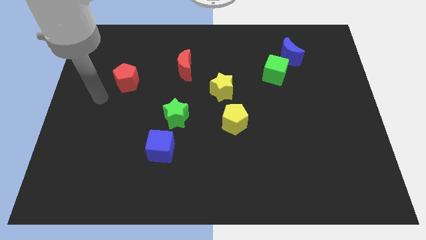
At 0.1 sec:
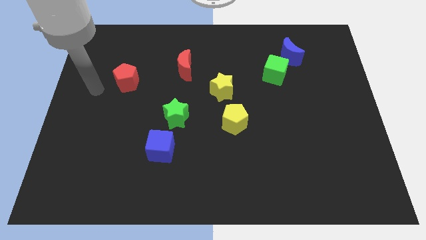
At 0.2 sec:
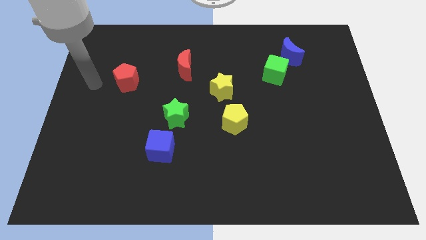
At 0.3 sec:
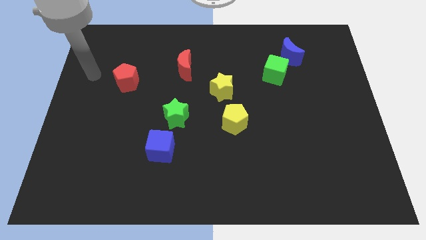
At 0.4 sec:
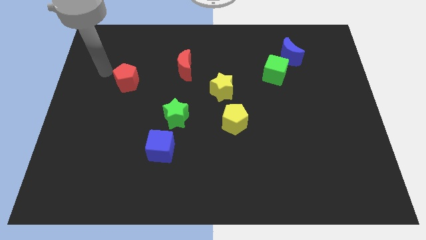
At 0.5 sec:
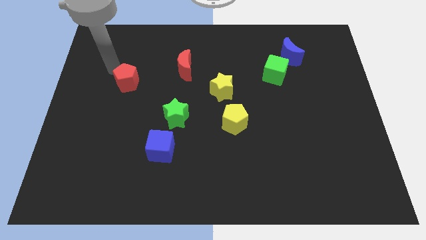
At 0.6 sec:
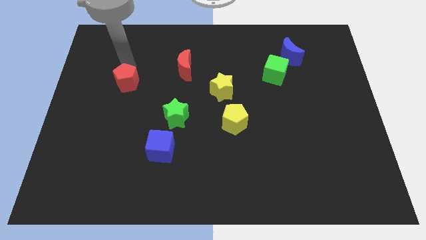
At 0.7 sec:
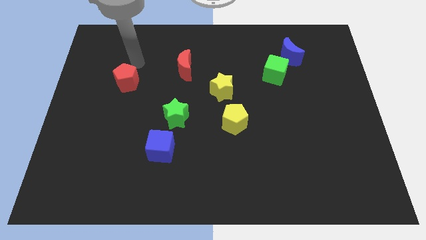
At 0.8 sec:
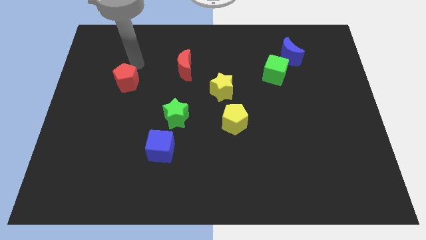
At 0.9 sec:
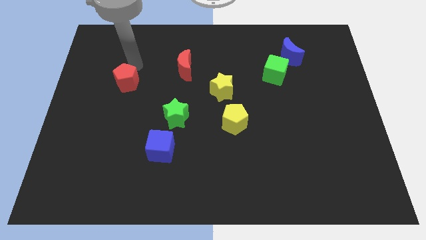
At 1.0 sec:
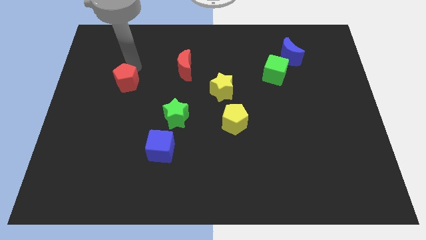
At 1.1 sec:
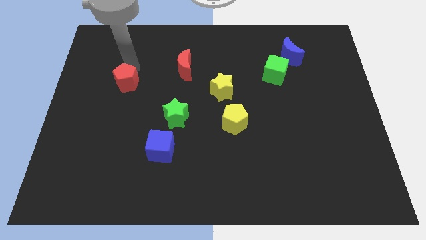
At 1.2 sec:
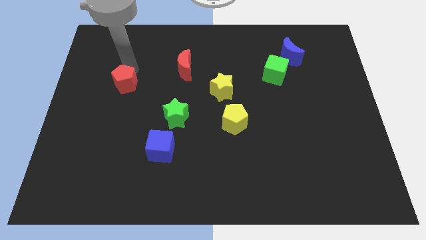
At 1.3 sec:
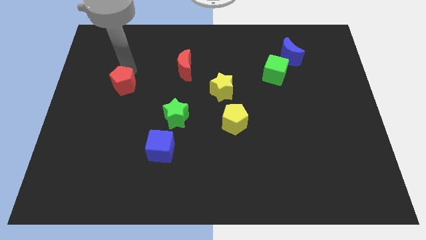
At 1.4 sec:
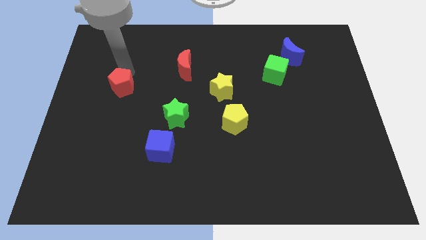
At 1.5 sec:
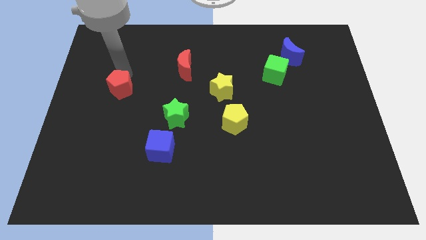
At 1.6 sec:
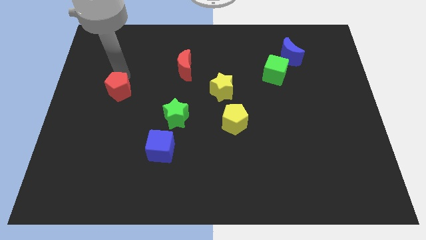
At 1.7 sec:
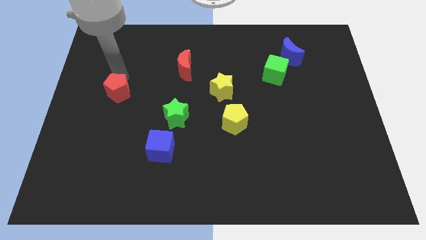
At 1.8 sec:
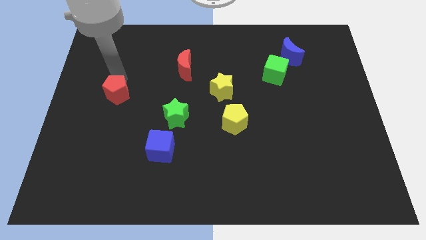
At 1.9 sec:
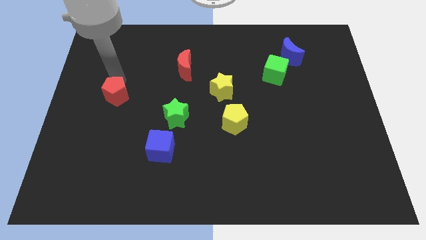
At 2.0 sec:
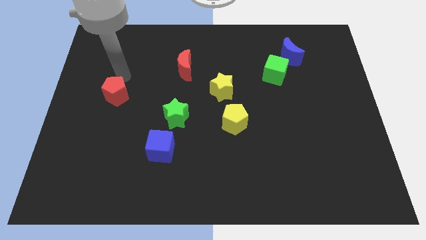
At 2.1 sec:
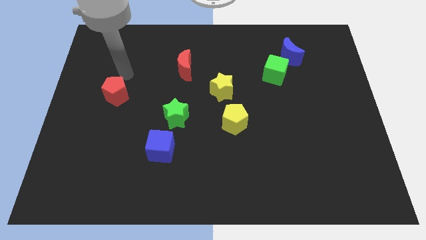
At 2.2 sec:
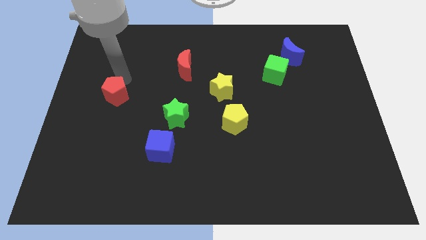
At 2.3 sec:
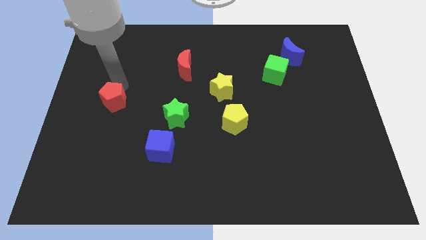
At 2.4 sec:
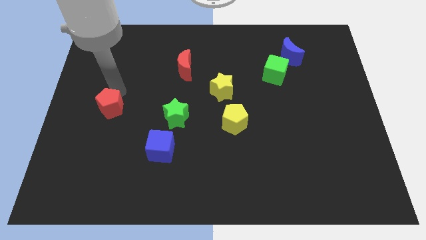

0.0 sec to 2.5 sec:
slightly push the red pentagon downwards

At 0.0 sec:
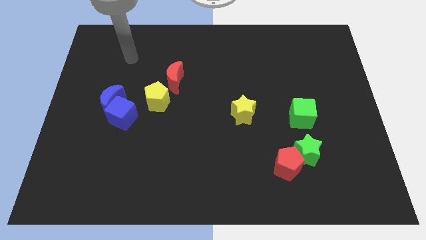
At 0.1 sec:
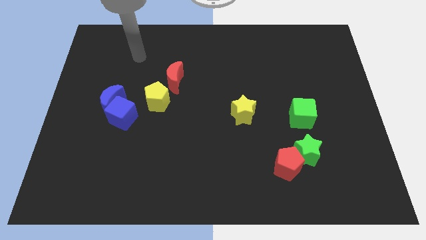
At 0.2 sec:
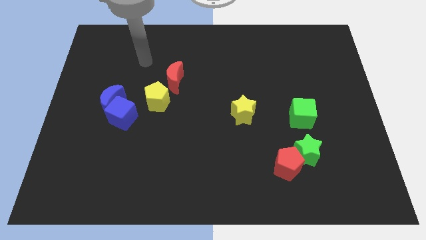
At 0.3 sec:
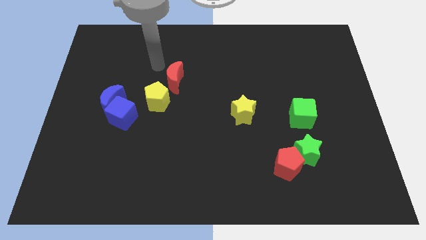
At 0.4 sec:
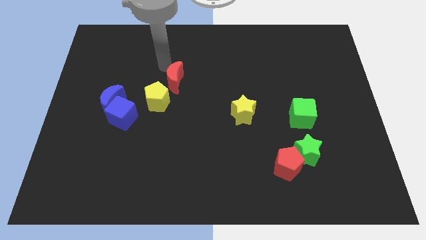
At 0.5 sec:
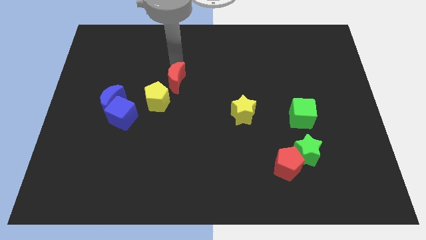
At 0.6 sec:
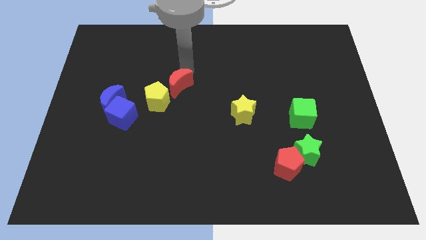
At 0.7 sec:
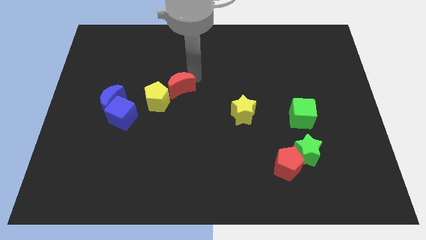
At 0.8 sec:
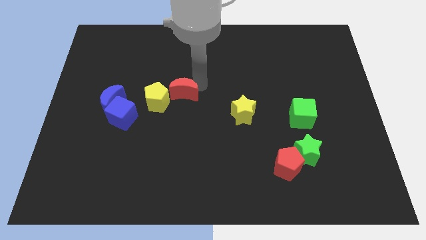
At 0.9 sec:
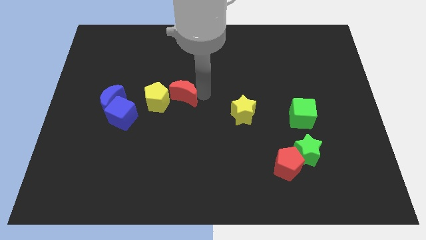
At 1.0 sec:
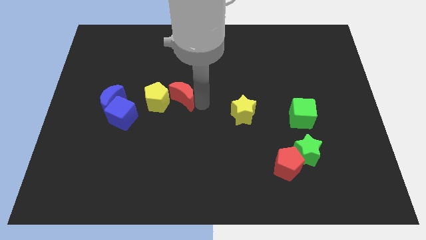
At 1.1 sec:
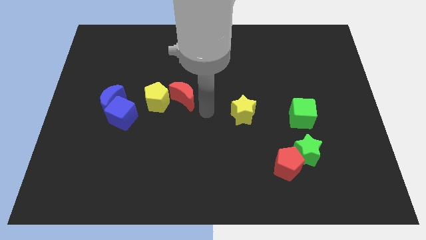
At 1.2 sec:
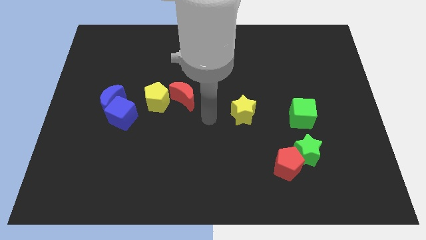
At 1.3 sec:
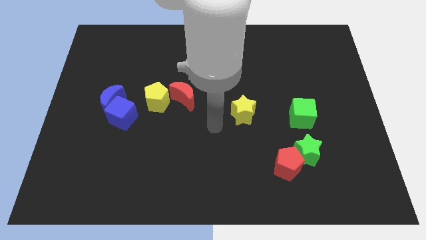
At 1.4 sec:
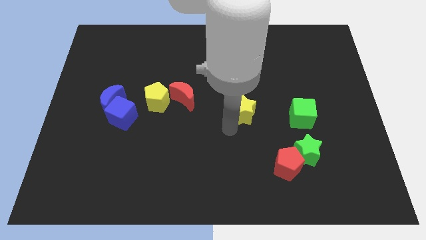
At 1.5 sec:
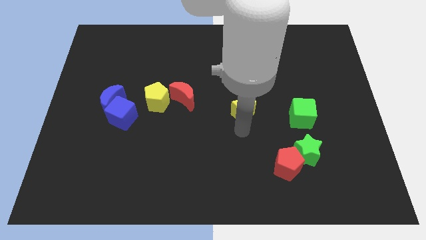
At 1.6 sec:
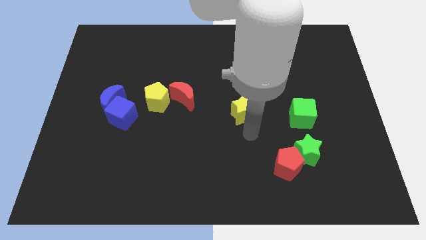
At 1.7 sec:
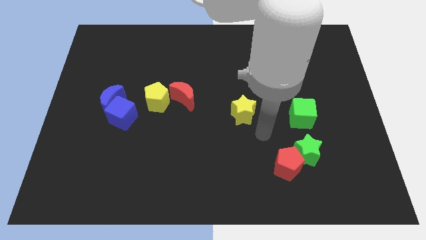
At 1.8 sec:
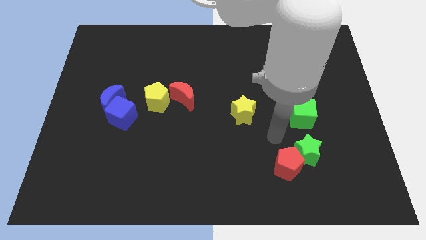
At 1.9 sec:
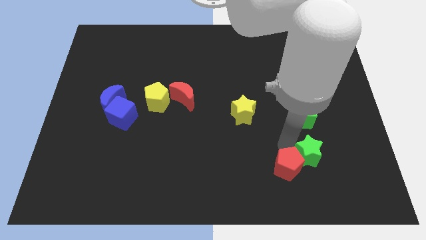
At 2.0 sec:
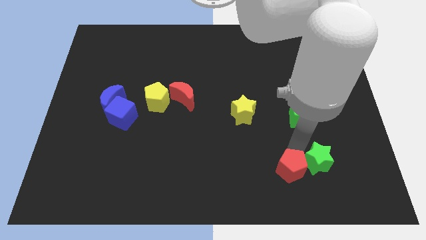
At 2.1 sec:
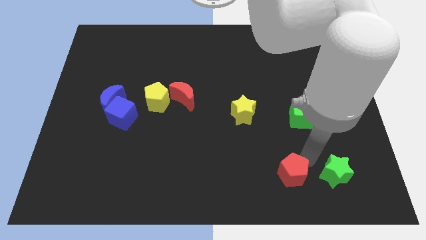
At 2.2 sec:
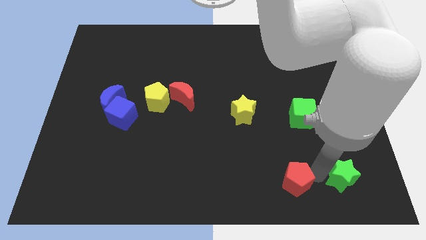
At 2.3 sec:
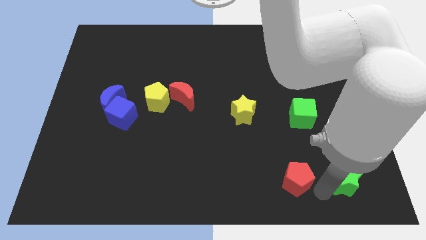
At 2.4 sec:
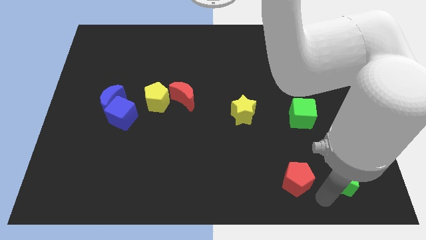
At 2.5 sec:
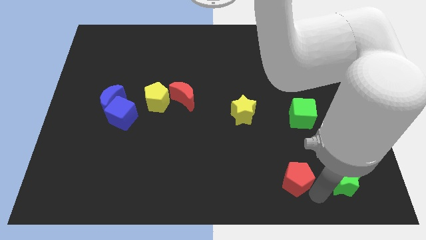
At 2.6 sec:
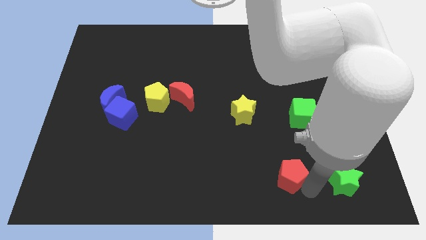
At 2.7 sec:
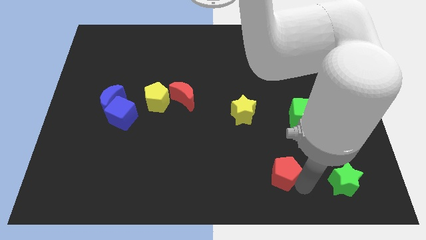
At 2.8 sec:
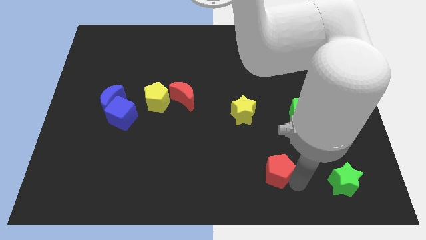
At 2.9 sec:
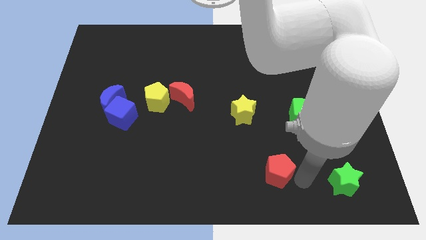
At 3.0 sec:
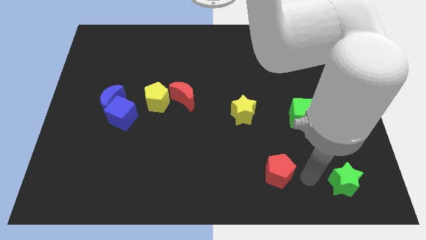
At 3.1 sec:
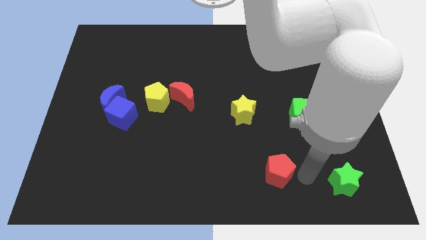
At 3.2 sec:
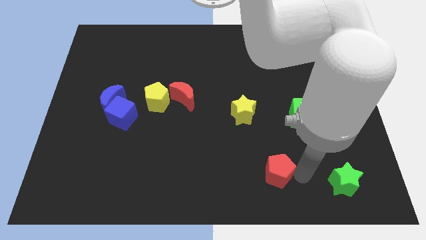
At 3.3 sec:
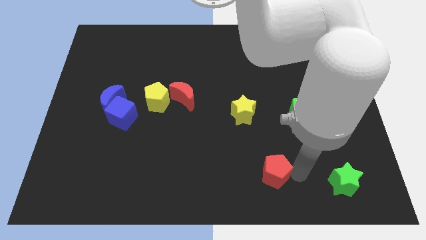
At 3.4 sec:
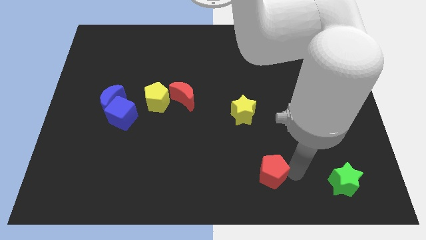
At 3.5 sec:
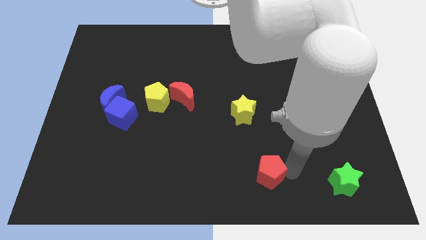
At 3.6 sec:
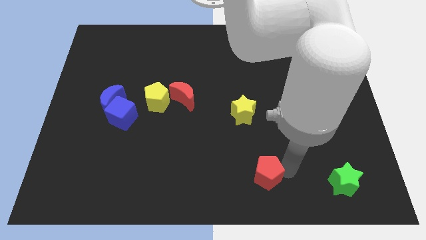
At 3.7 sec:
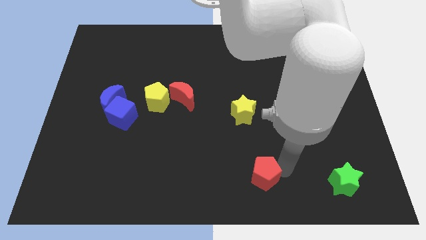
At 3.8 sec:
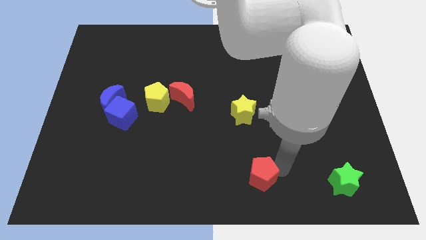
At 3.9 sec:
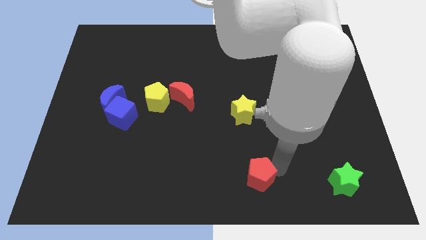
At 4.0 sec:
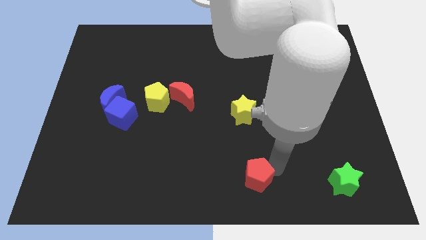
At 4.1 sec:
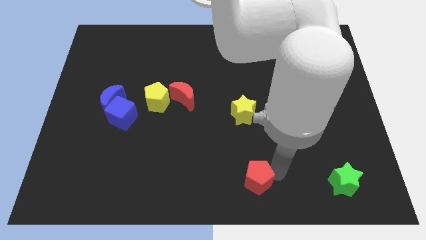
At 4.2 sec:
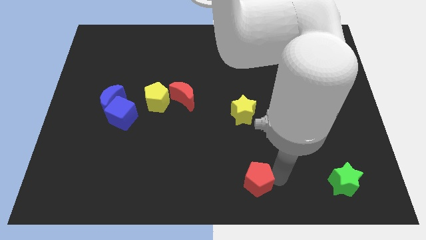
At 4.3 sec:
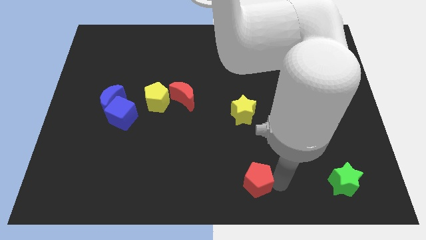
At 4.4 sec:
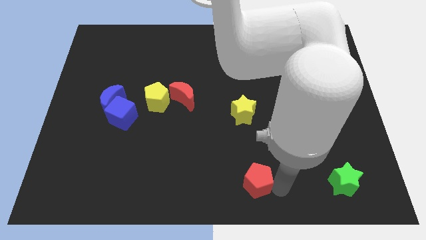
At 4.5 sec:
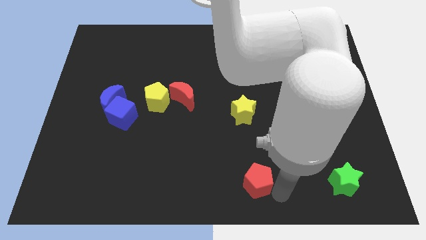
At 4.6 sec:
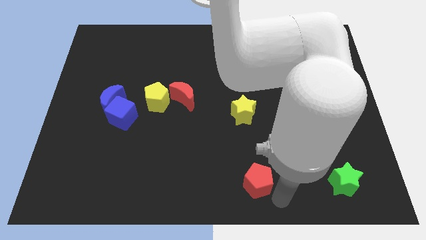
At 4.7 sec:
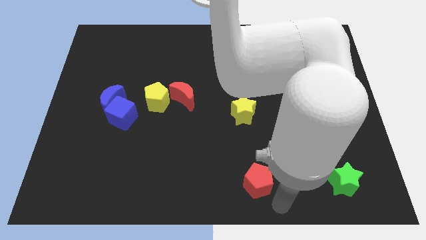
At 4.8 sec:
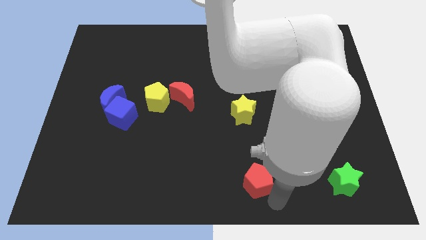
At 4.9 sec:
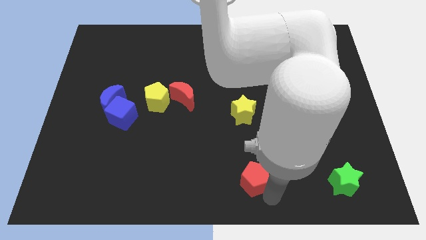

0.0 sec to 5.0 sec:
slightly push the red pentagon to the left

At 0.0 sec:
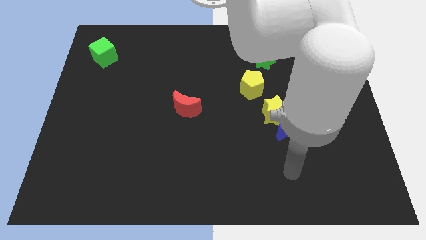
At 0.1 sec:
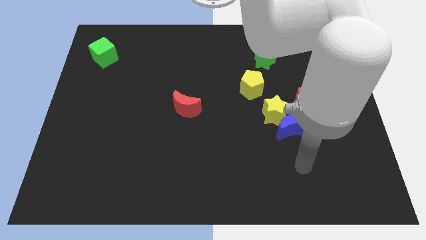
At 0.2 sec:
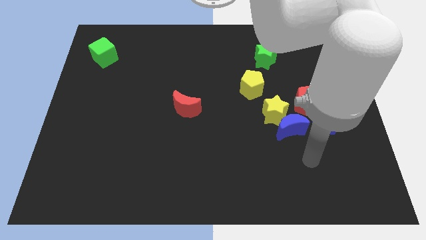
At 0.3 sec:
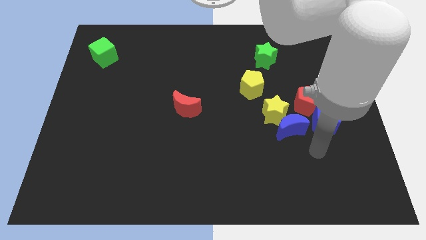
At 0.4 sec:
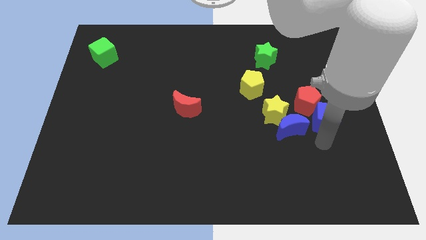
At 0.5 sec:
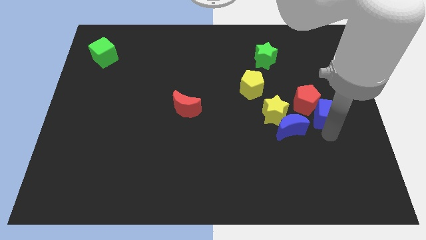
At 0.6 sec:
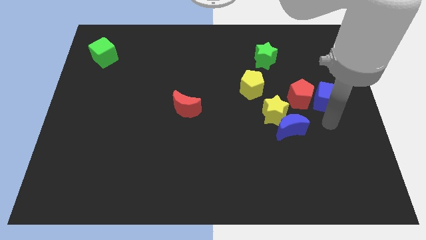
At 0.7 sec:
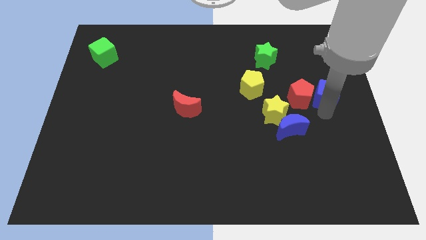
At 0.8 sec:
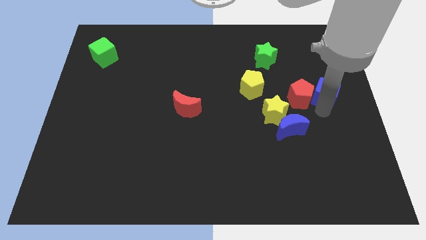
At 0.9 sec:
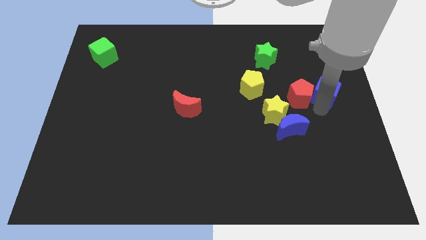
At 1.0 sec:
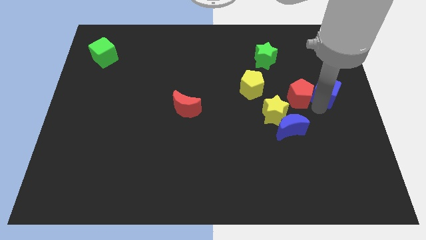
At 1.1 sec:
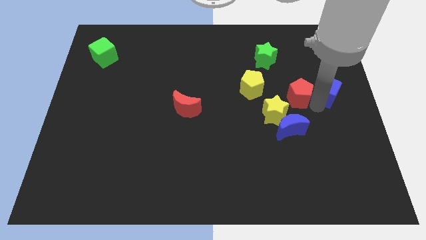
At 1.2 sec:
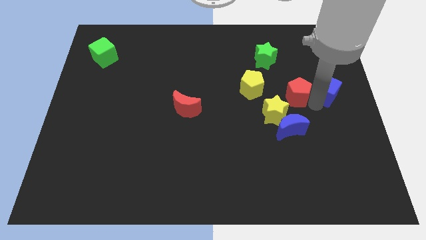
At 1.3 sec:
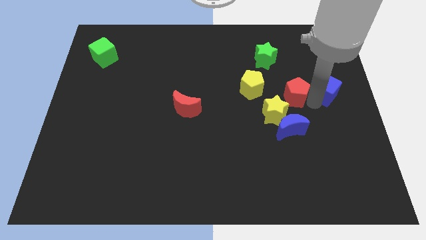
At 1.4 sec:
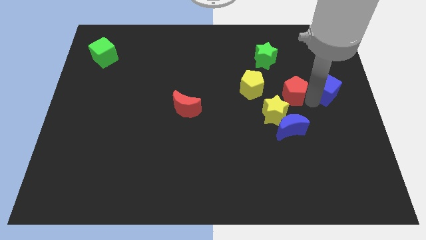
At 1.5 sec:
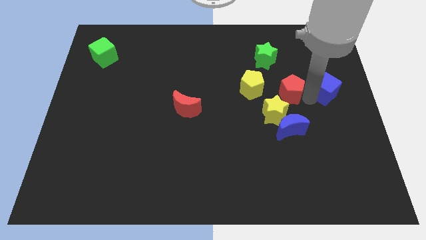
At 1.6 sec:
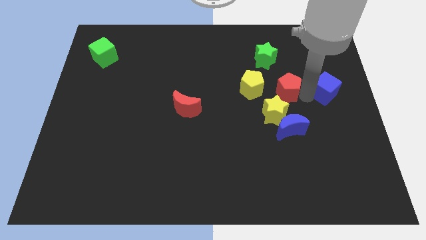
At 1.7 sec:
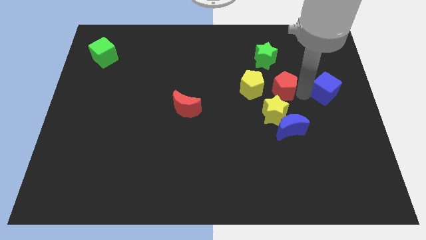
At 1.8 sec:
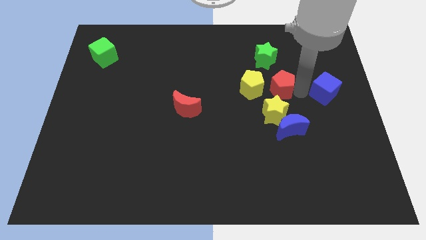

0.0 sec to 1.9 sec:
push the red pentagon diagonally up and to the left a little
